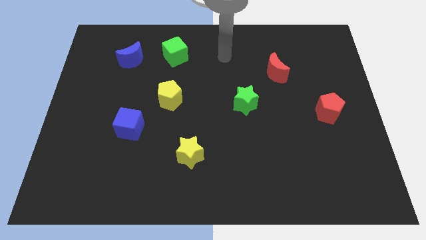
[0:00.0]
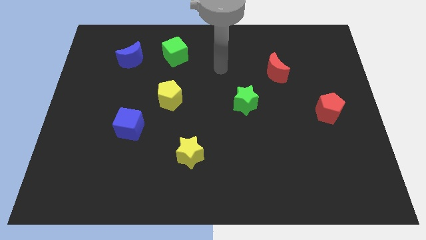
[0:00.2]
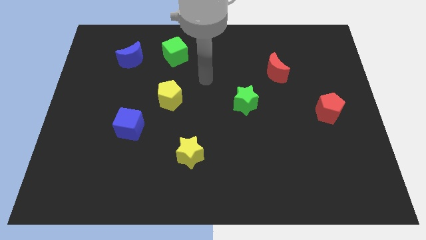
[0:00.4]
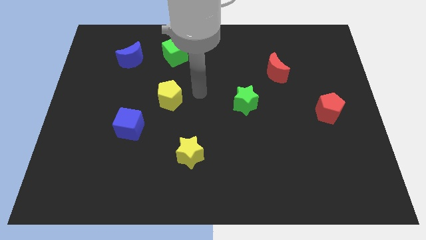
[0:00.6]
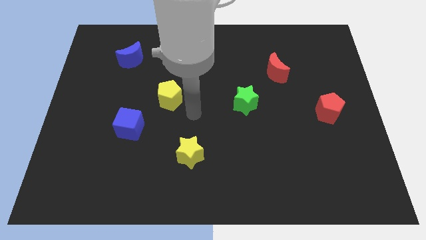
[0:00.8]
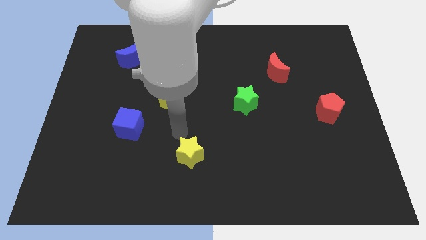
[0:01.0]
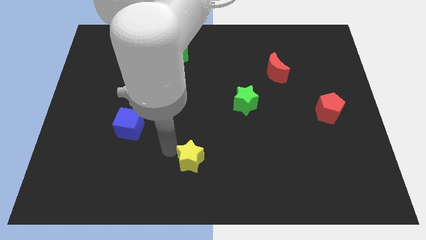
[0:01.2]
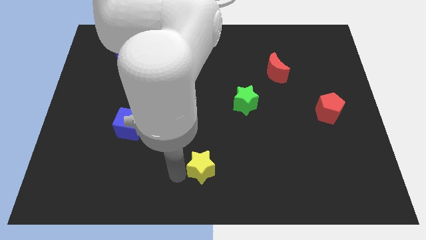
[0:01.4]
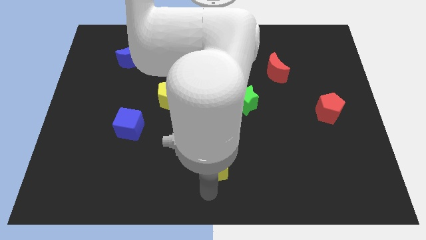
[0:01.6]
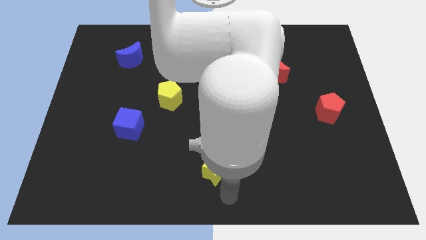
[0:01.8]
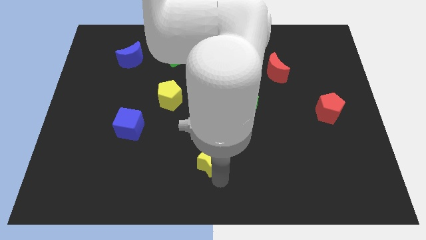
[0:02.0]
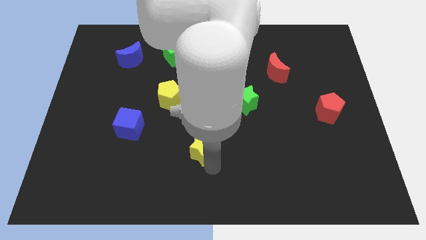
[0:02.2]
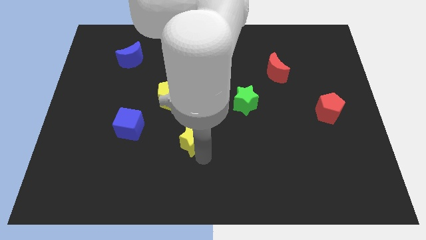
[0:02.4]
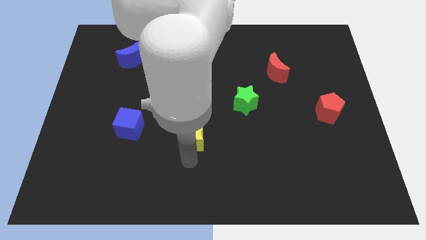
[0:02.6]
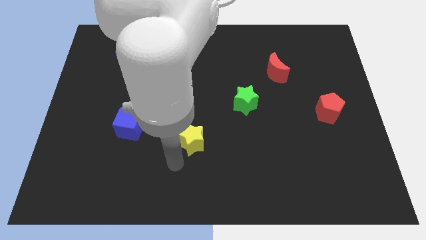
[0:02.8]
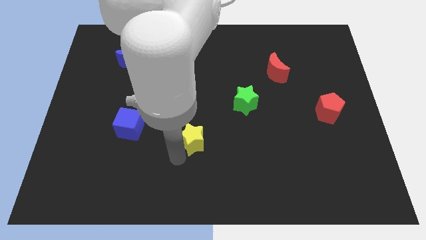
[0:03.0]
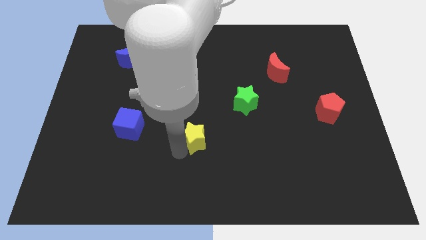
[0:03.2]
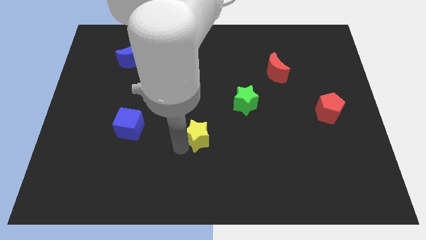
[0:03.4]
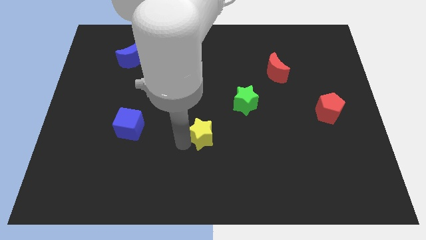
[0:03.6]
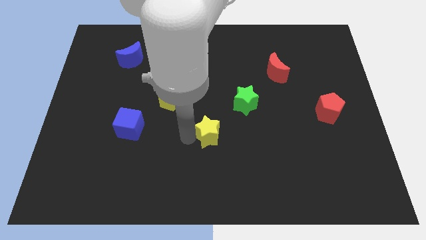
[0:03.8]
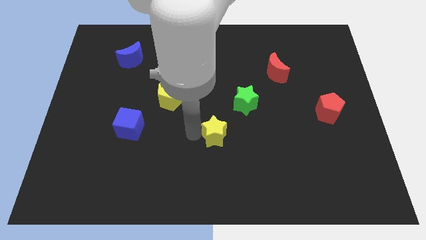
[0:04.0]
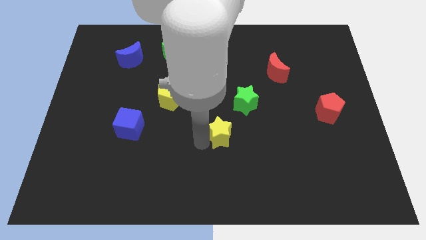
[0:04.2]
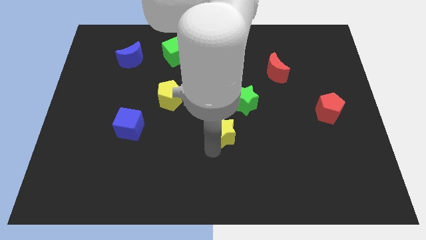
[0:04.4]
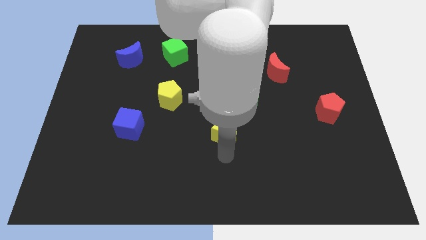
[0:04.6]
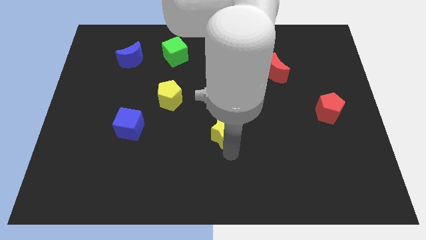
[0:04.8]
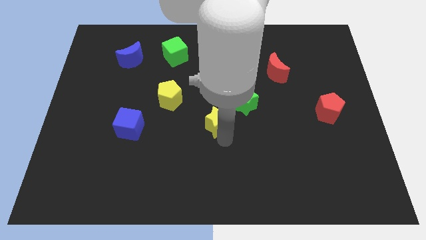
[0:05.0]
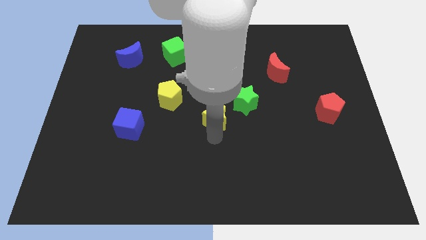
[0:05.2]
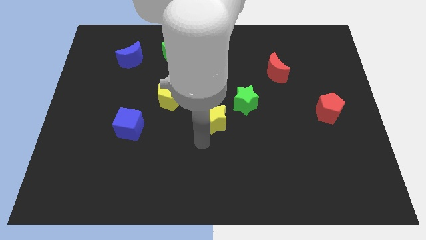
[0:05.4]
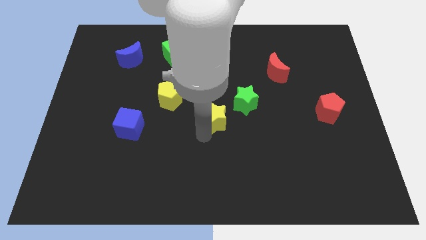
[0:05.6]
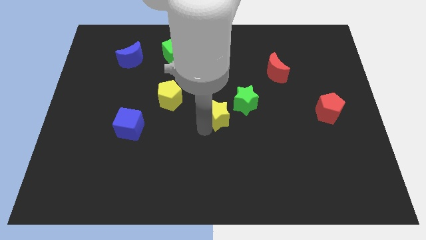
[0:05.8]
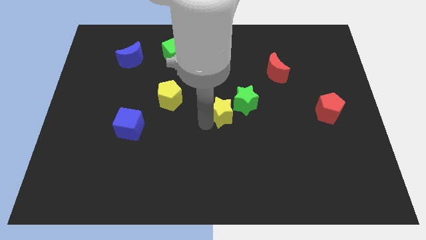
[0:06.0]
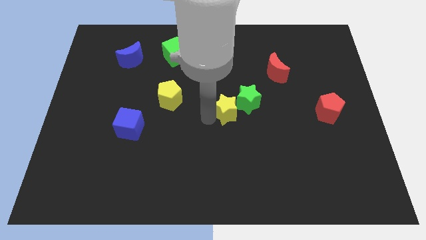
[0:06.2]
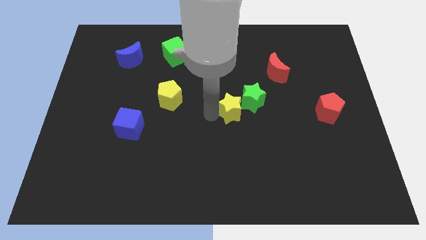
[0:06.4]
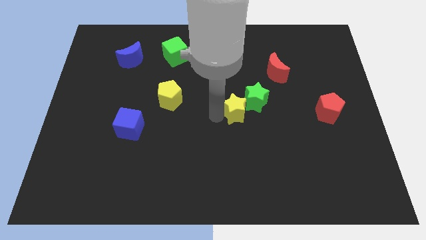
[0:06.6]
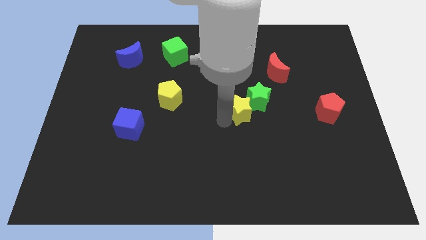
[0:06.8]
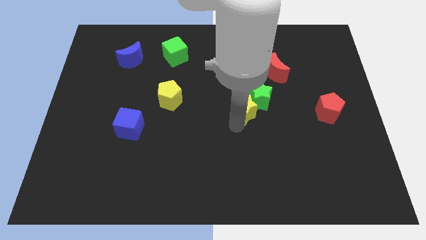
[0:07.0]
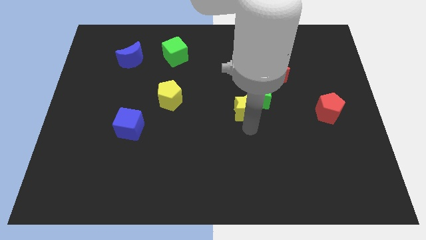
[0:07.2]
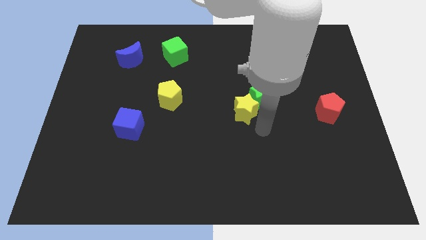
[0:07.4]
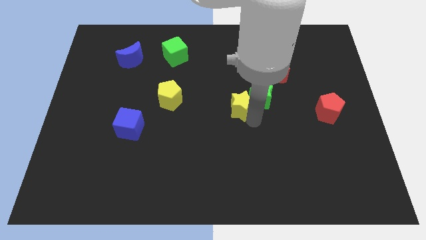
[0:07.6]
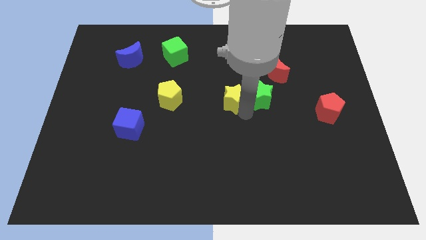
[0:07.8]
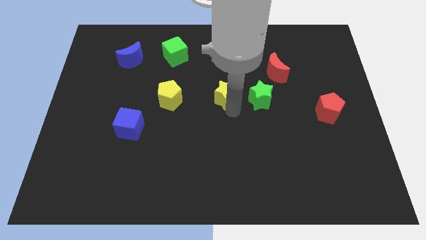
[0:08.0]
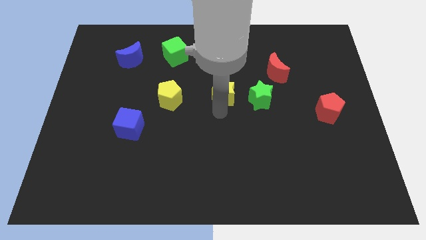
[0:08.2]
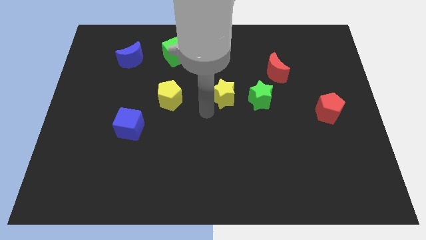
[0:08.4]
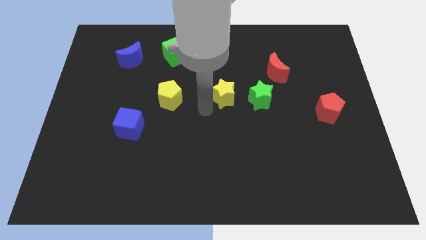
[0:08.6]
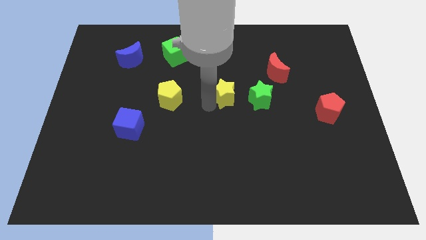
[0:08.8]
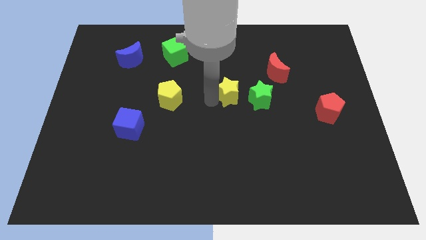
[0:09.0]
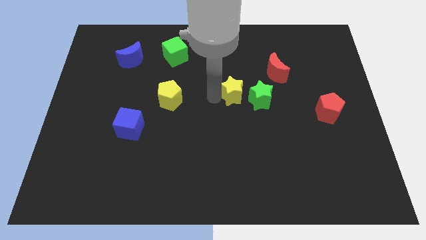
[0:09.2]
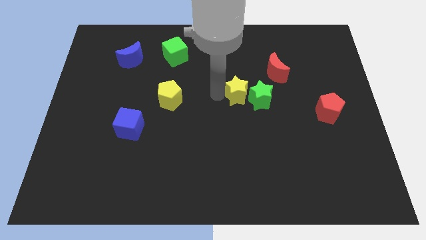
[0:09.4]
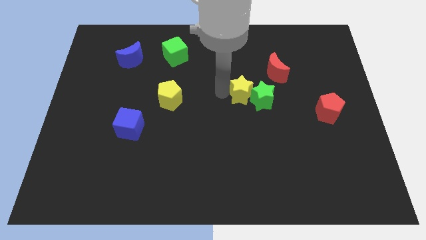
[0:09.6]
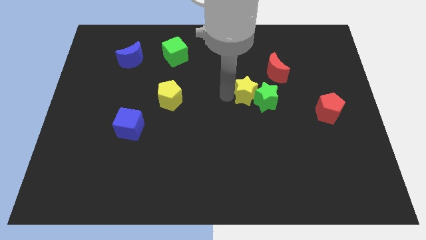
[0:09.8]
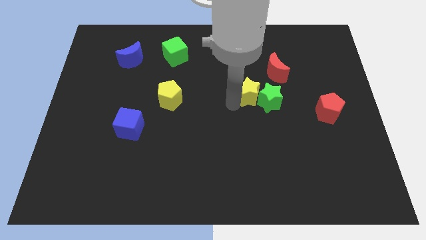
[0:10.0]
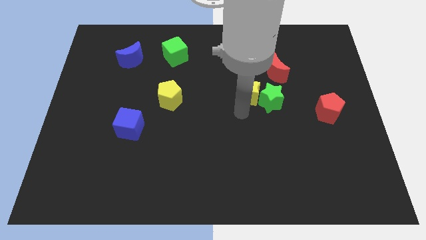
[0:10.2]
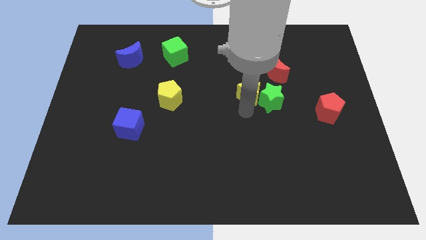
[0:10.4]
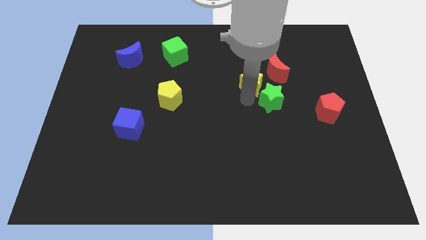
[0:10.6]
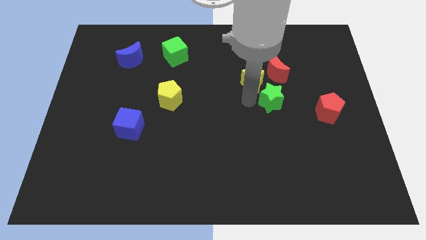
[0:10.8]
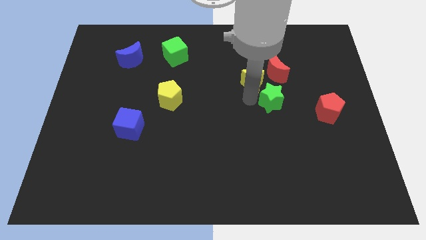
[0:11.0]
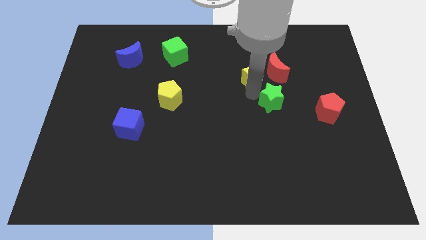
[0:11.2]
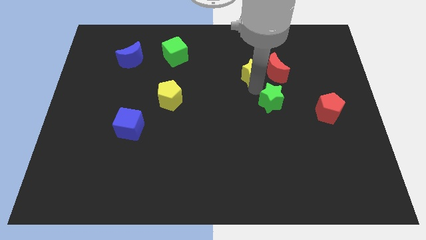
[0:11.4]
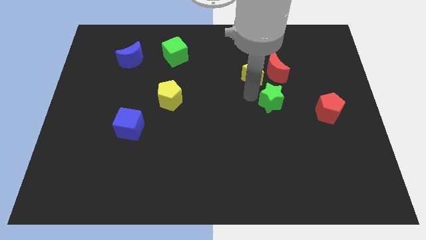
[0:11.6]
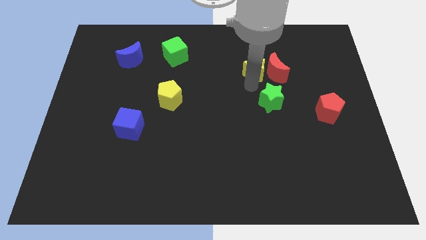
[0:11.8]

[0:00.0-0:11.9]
push the yellow star to the top left of the red moon

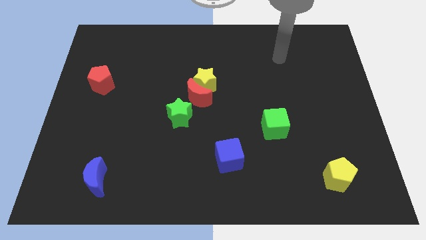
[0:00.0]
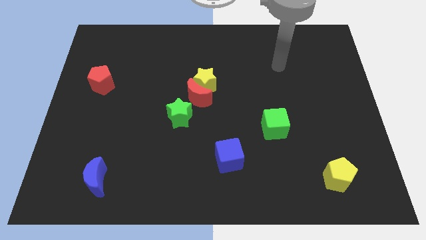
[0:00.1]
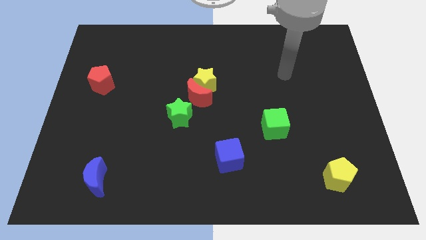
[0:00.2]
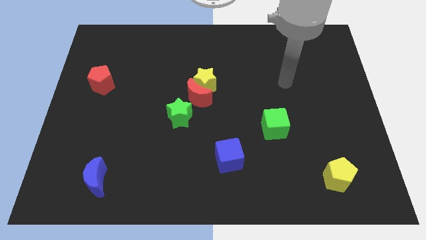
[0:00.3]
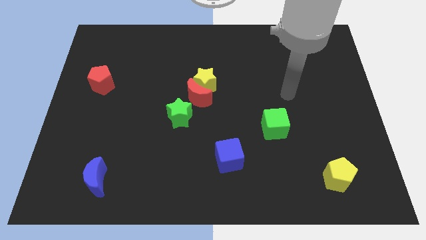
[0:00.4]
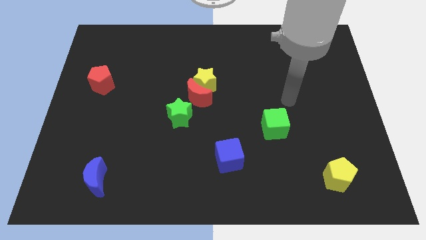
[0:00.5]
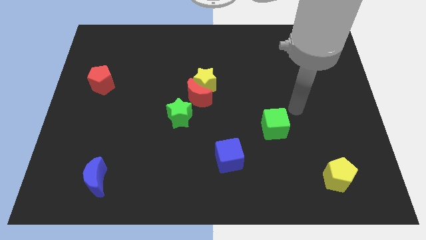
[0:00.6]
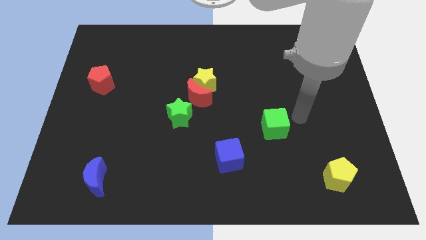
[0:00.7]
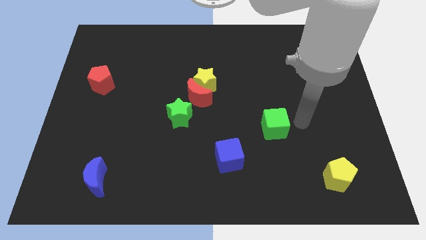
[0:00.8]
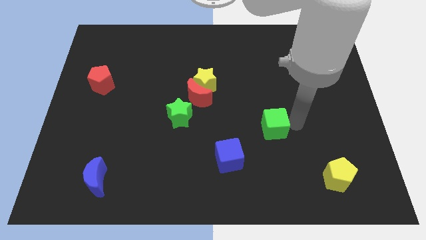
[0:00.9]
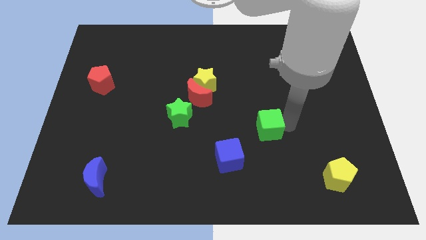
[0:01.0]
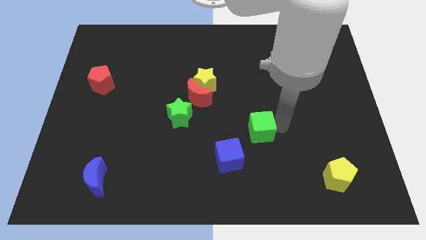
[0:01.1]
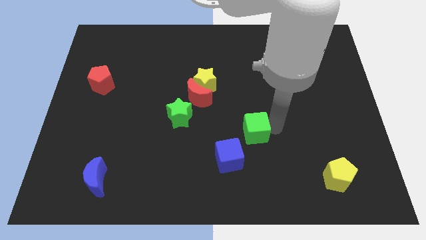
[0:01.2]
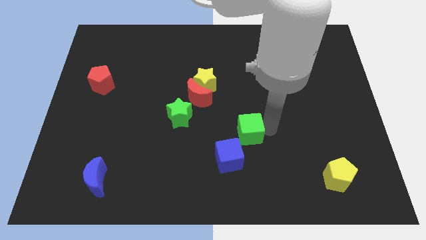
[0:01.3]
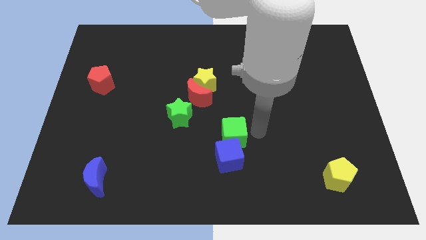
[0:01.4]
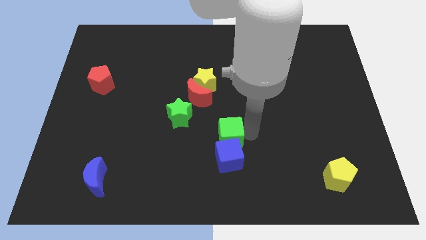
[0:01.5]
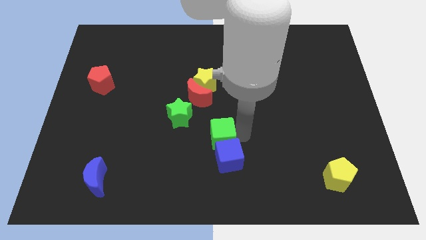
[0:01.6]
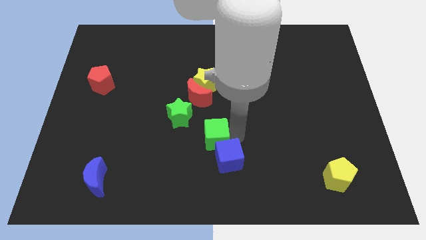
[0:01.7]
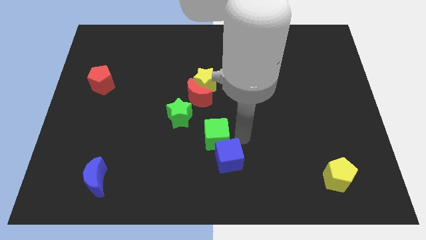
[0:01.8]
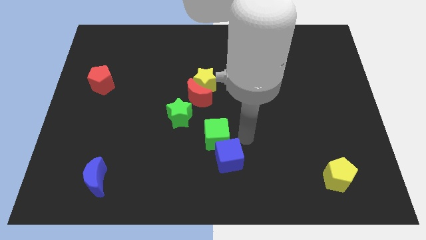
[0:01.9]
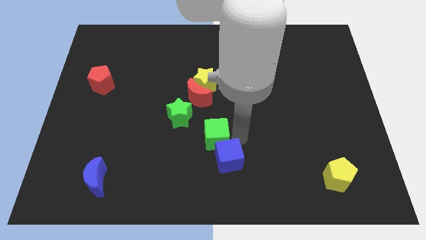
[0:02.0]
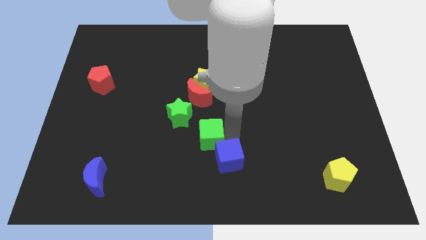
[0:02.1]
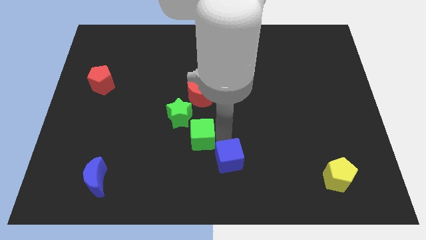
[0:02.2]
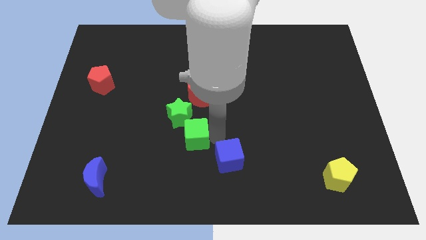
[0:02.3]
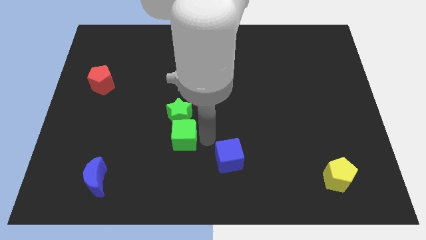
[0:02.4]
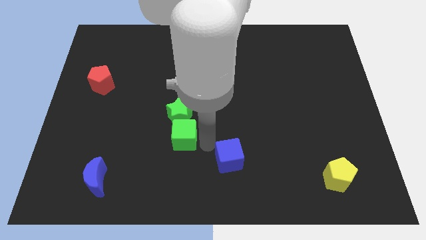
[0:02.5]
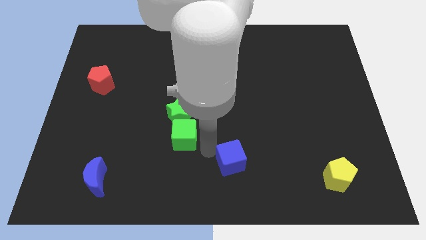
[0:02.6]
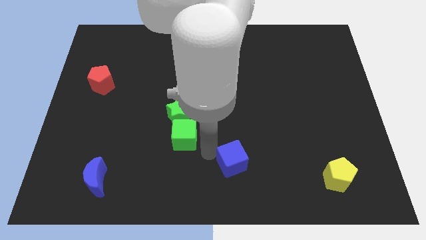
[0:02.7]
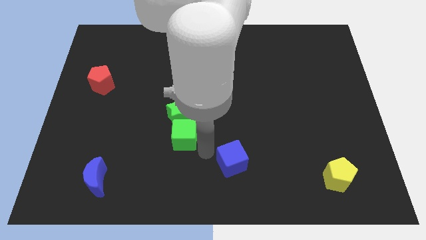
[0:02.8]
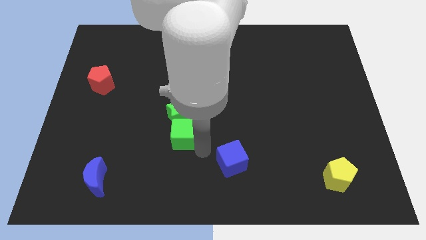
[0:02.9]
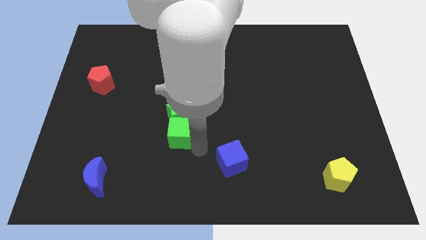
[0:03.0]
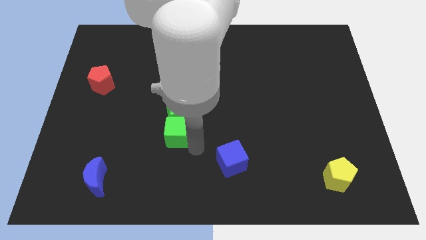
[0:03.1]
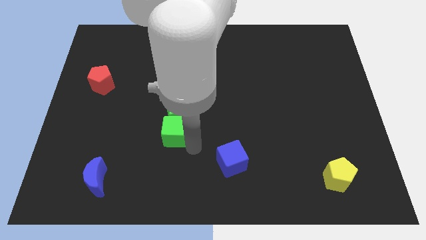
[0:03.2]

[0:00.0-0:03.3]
put the green cube to the bottom left side of the red moon
